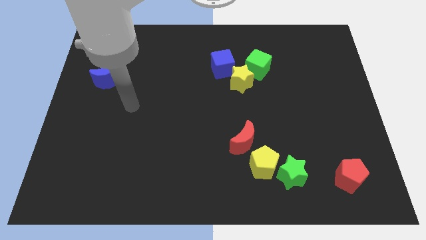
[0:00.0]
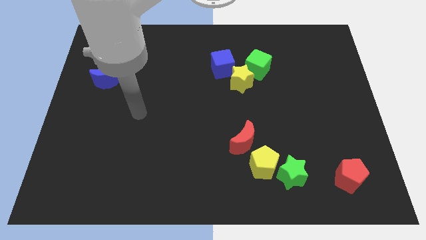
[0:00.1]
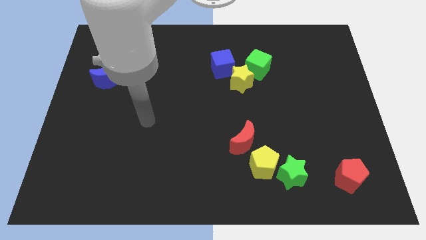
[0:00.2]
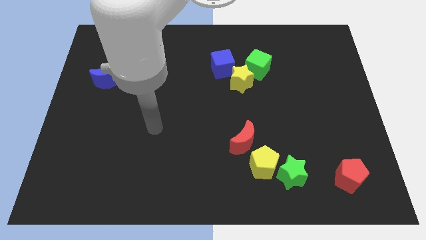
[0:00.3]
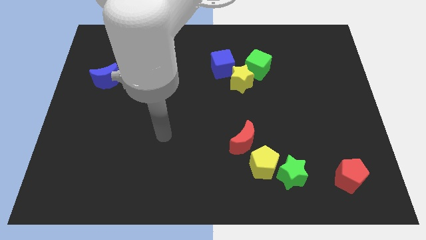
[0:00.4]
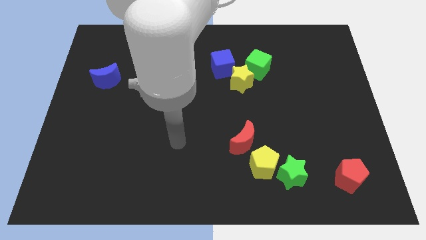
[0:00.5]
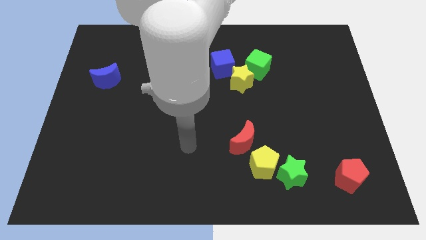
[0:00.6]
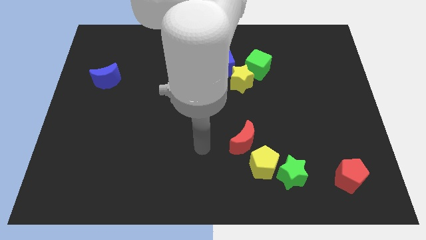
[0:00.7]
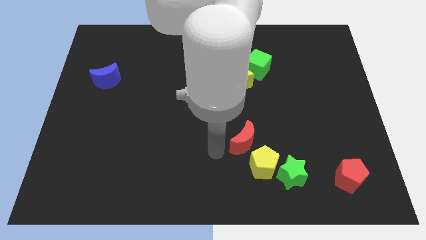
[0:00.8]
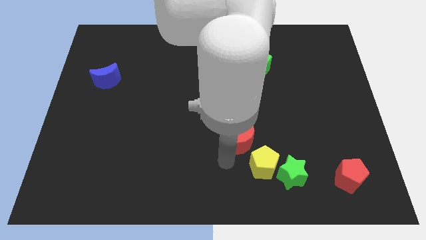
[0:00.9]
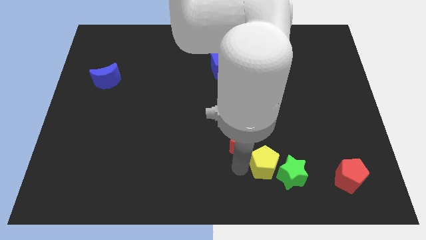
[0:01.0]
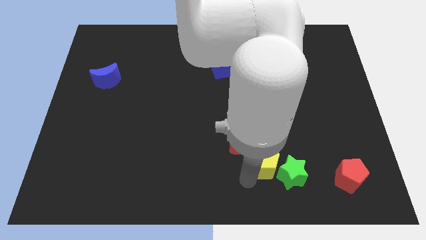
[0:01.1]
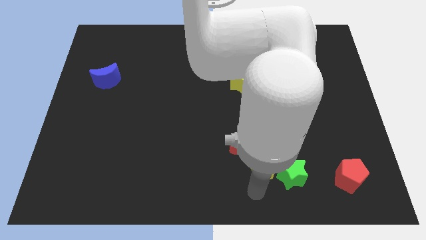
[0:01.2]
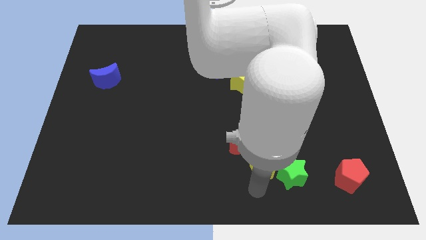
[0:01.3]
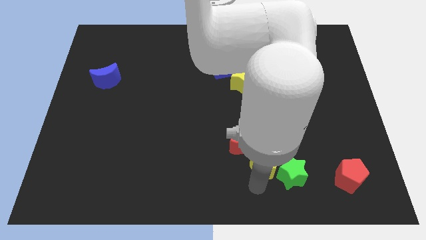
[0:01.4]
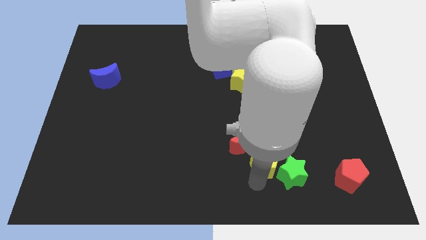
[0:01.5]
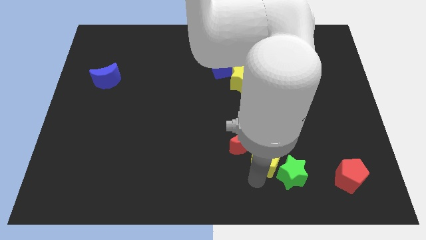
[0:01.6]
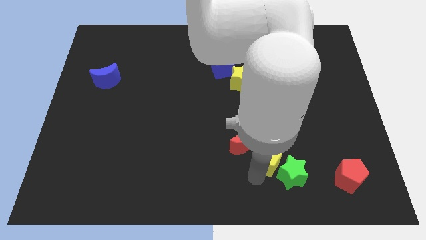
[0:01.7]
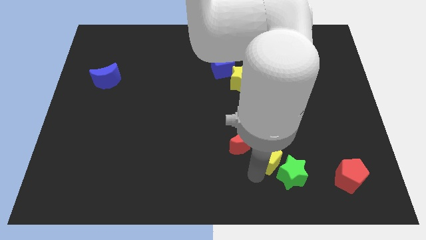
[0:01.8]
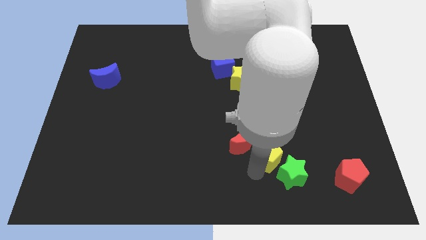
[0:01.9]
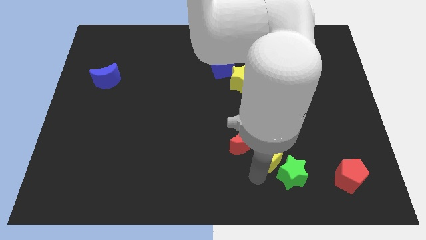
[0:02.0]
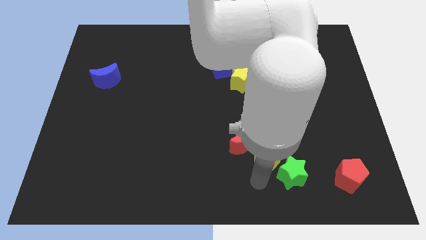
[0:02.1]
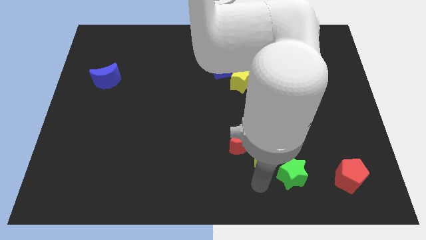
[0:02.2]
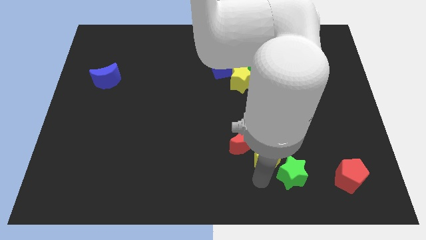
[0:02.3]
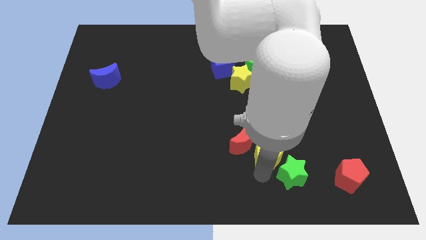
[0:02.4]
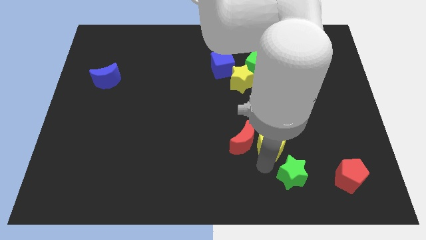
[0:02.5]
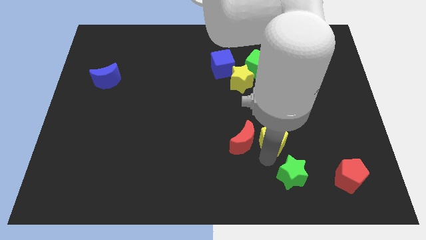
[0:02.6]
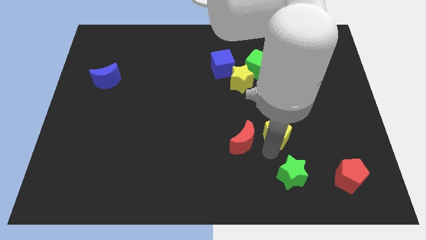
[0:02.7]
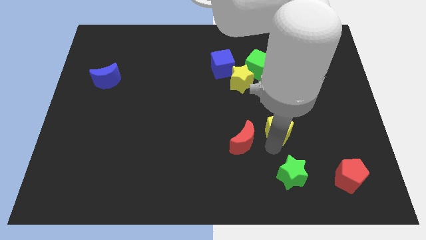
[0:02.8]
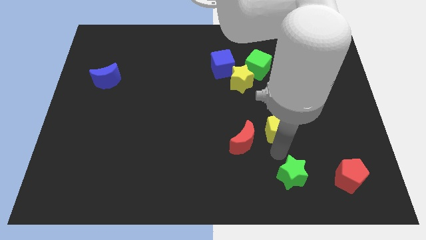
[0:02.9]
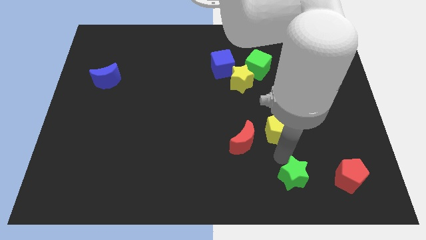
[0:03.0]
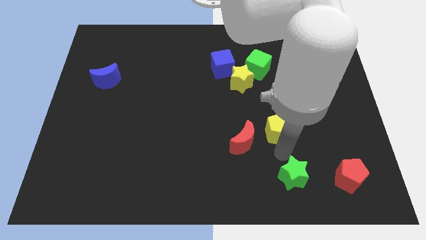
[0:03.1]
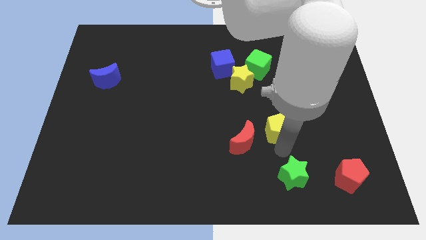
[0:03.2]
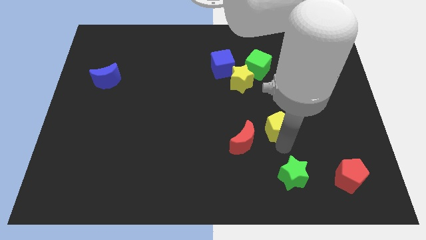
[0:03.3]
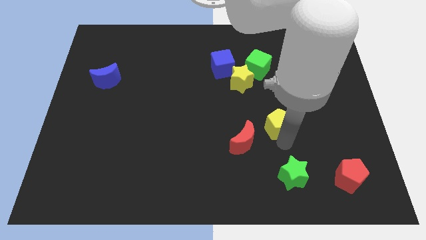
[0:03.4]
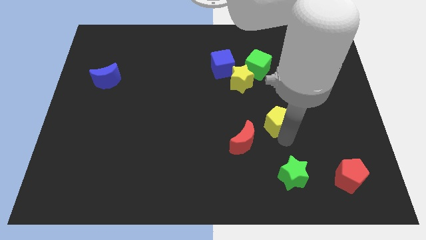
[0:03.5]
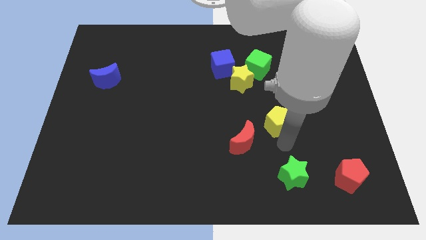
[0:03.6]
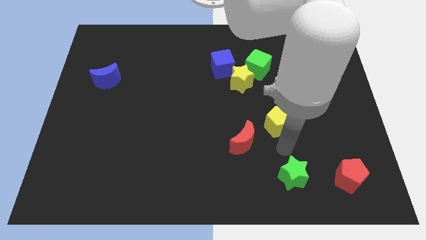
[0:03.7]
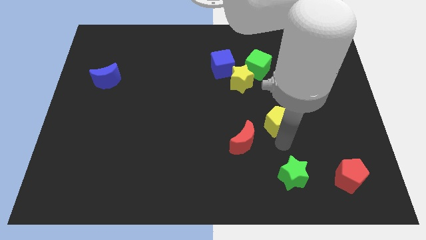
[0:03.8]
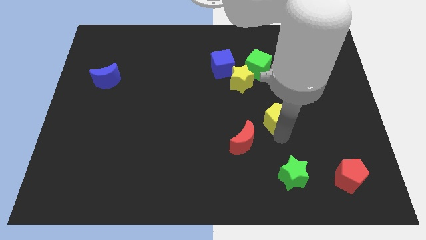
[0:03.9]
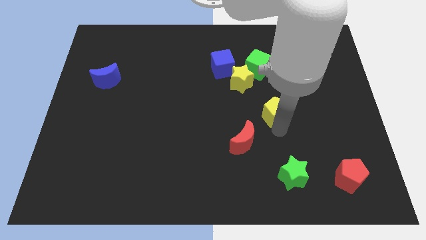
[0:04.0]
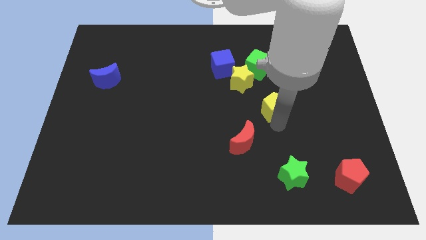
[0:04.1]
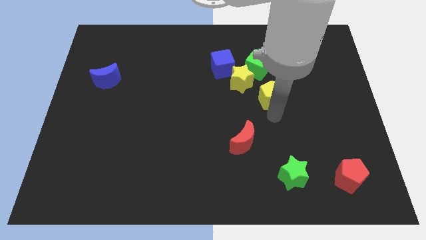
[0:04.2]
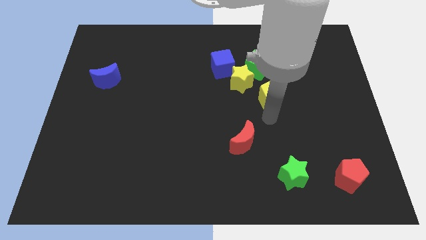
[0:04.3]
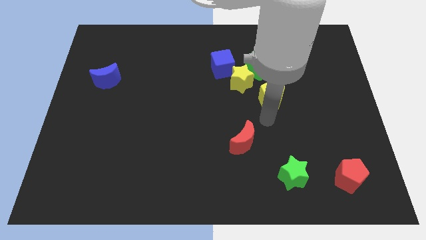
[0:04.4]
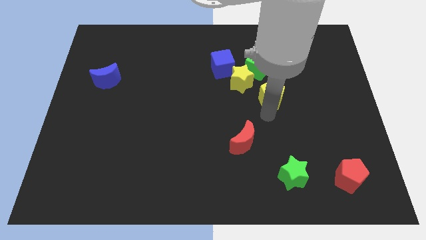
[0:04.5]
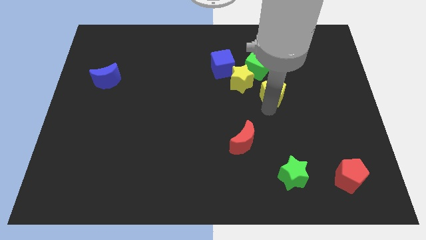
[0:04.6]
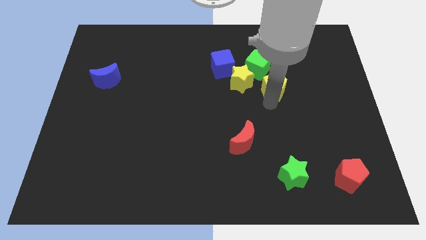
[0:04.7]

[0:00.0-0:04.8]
move the yellow pentagon up

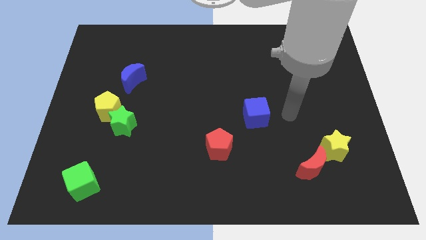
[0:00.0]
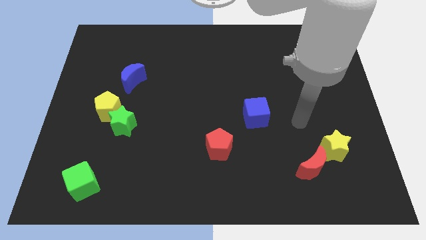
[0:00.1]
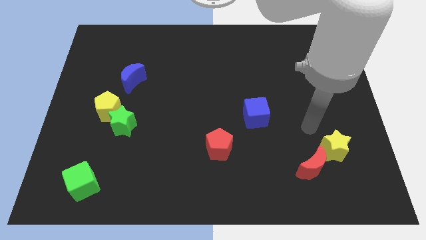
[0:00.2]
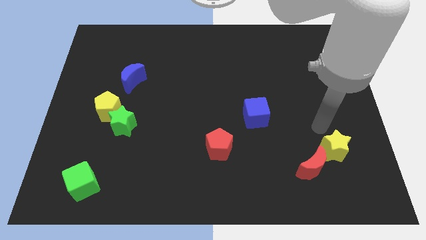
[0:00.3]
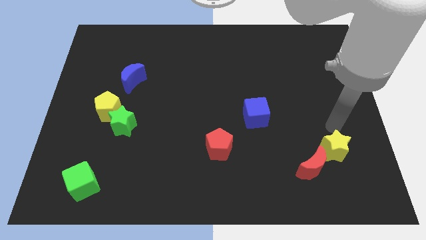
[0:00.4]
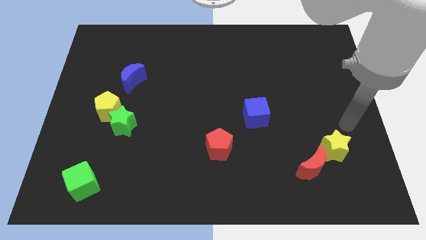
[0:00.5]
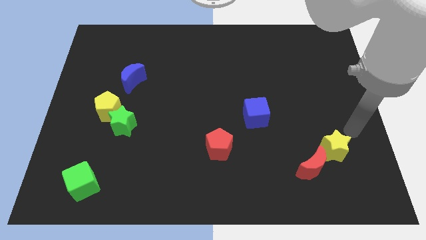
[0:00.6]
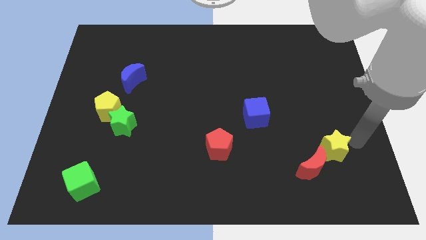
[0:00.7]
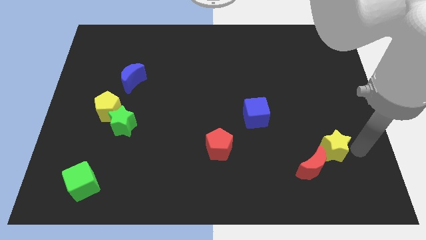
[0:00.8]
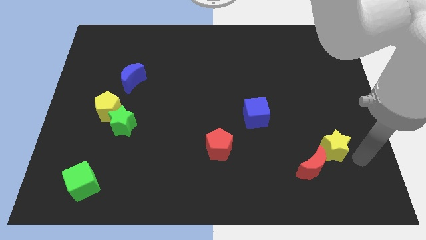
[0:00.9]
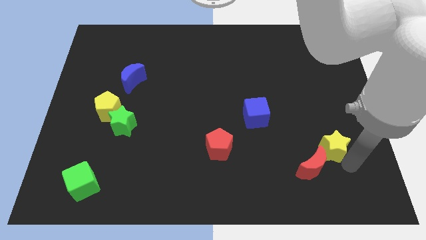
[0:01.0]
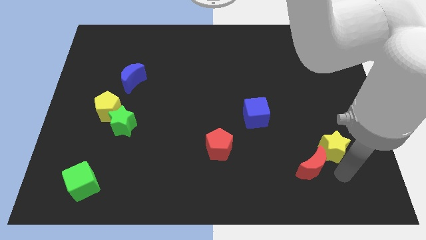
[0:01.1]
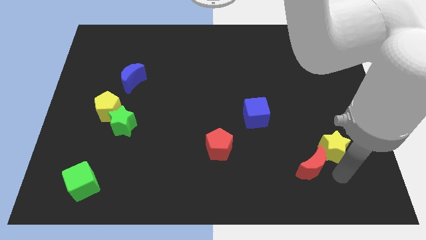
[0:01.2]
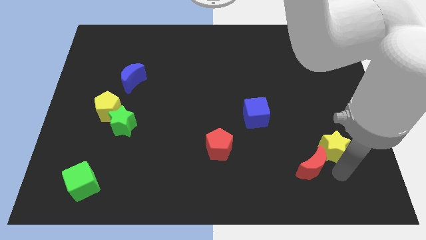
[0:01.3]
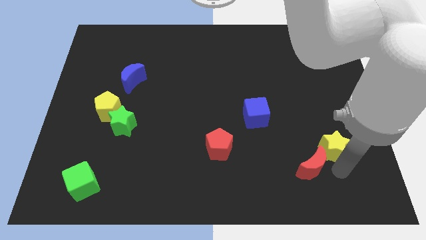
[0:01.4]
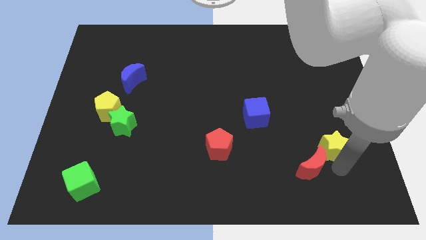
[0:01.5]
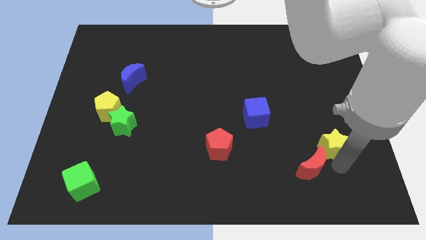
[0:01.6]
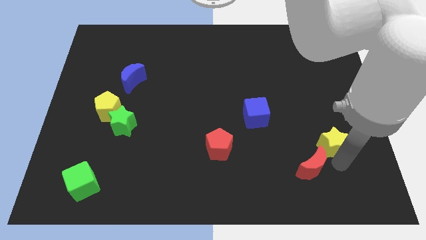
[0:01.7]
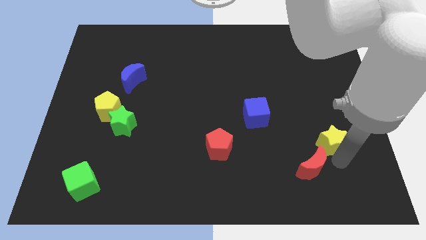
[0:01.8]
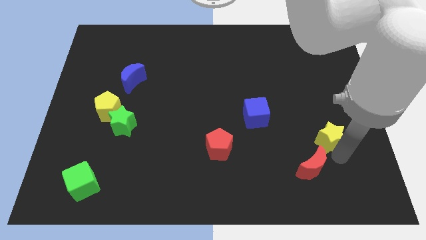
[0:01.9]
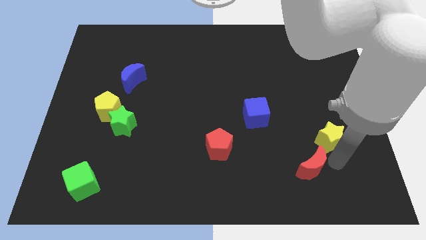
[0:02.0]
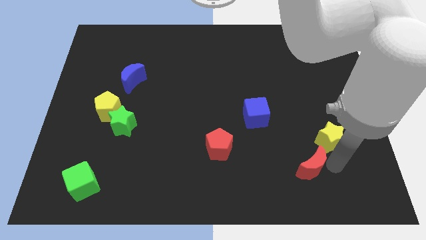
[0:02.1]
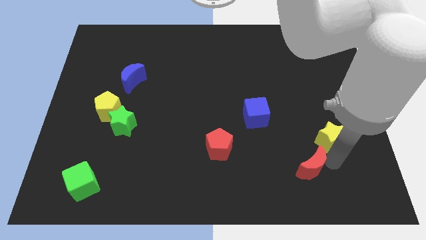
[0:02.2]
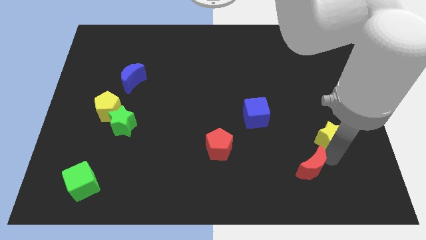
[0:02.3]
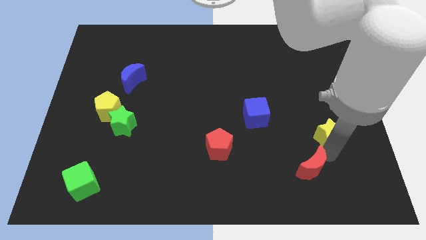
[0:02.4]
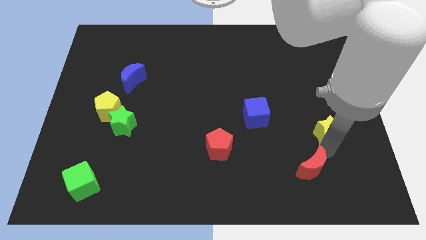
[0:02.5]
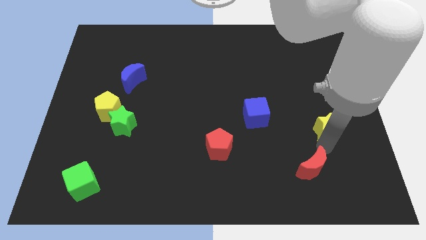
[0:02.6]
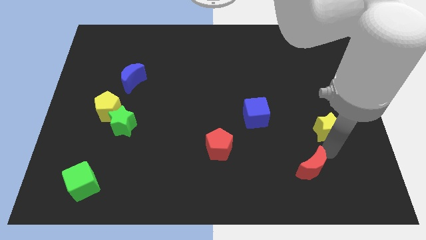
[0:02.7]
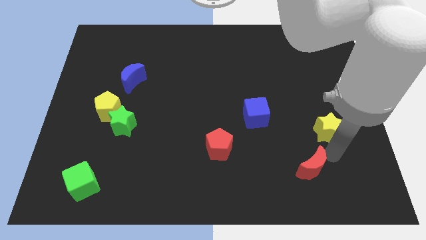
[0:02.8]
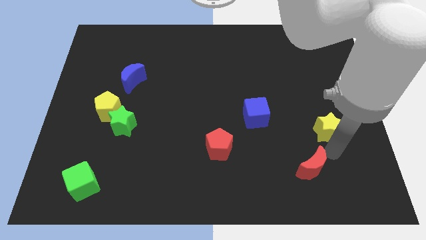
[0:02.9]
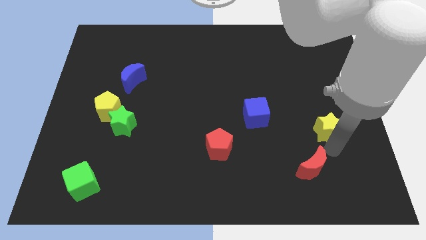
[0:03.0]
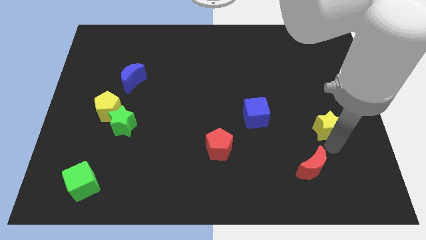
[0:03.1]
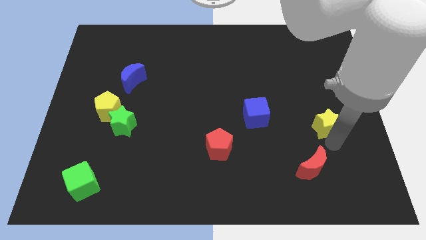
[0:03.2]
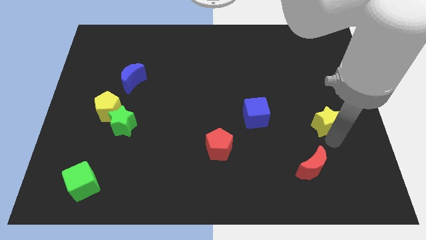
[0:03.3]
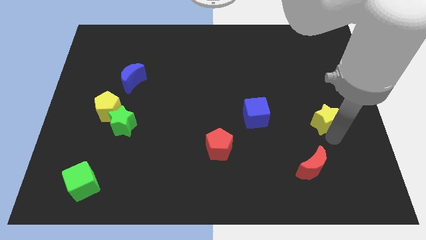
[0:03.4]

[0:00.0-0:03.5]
push the yellow star a little upwards
